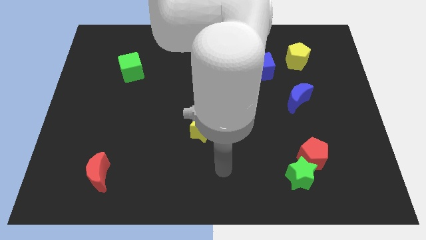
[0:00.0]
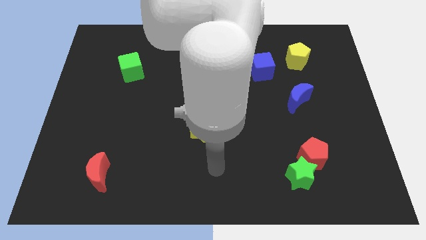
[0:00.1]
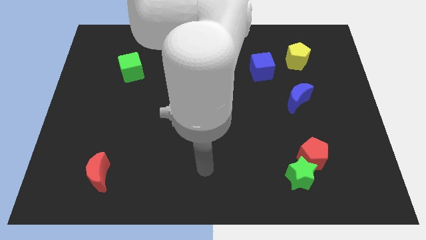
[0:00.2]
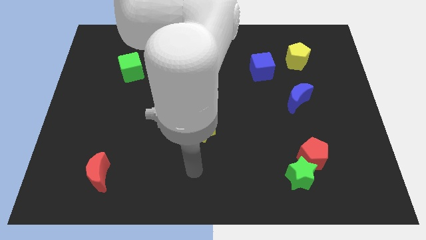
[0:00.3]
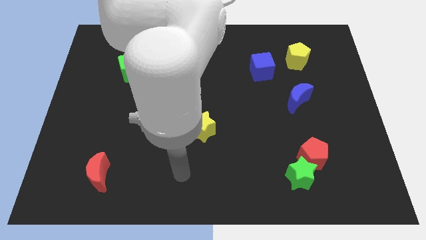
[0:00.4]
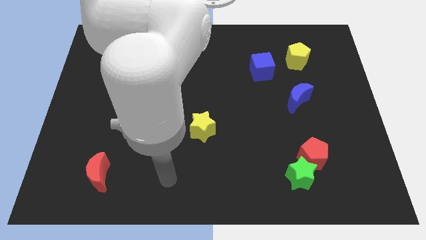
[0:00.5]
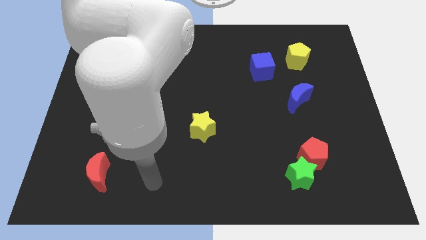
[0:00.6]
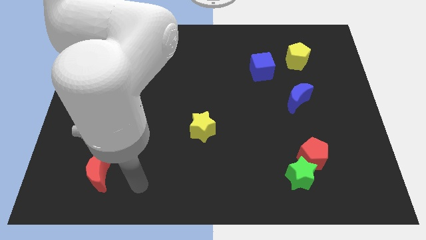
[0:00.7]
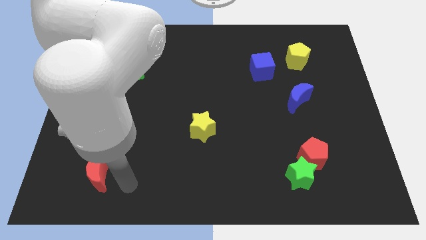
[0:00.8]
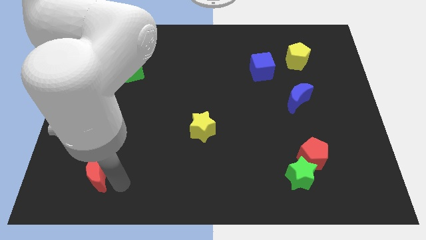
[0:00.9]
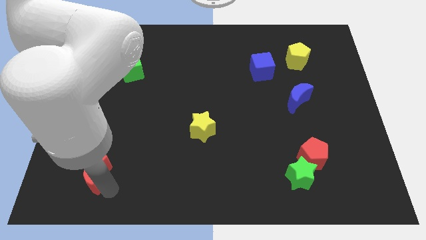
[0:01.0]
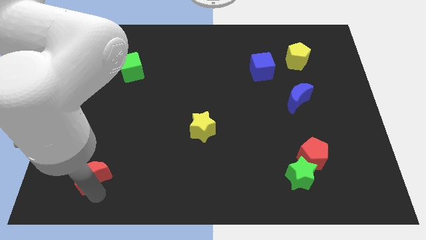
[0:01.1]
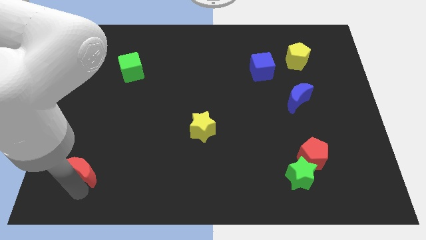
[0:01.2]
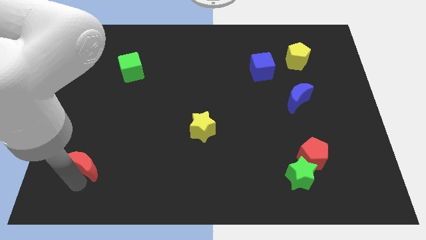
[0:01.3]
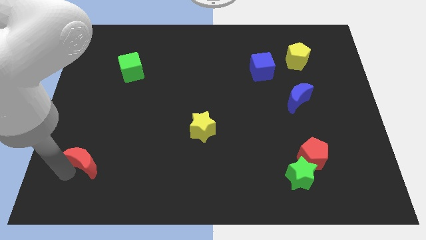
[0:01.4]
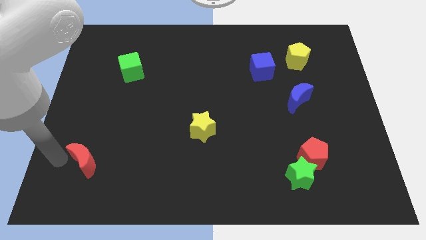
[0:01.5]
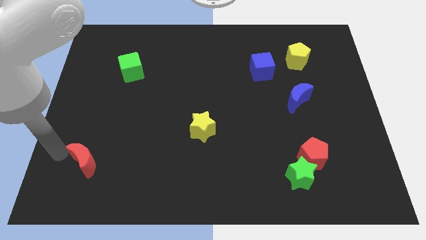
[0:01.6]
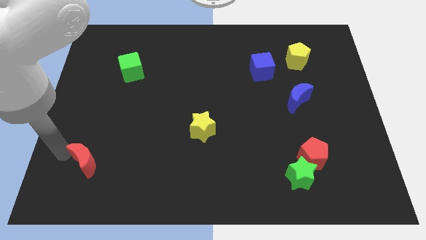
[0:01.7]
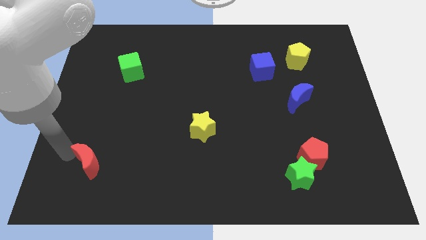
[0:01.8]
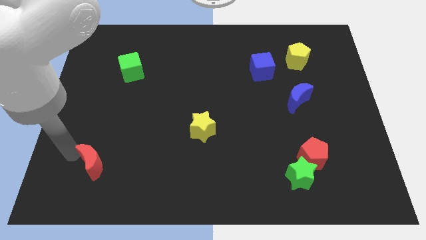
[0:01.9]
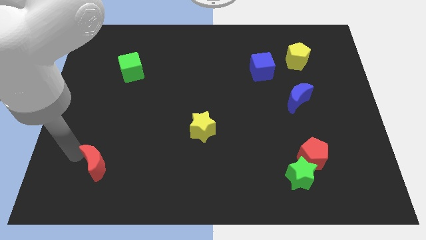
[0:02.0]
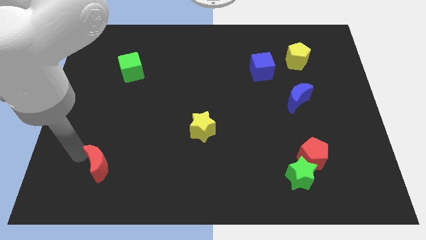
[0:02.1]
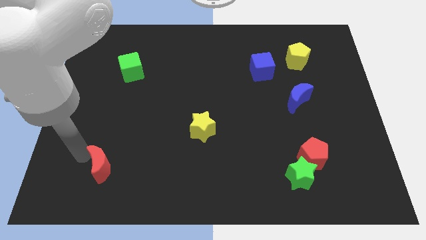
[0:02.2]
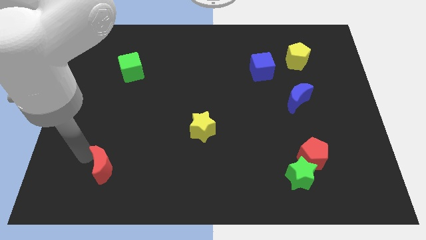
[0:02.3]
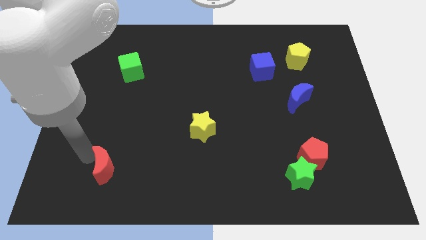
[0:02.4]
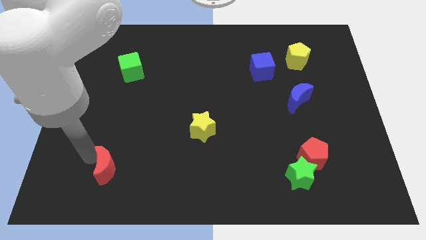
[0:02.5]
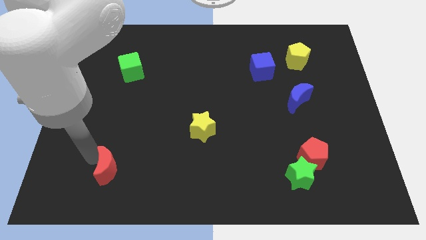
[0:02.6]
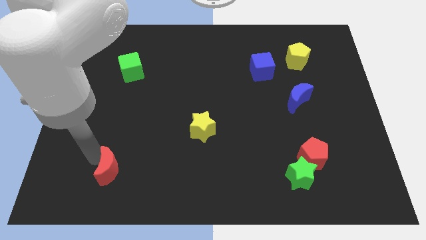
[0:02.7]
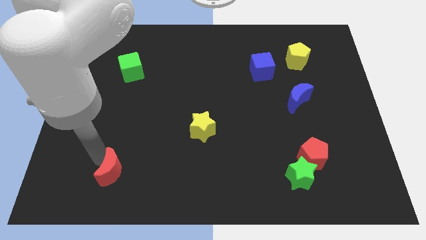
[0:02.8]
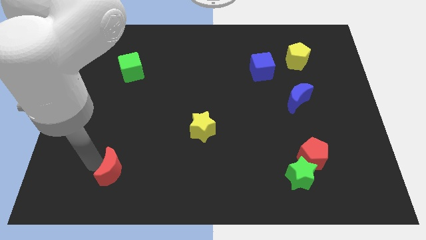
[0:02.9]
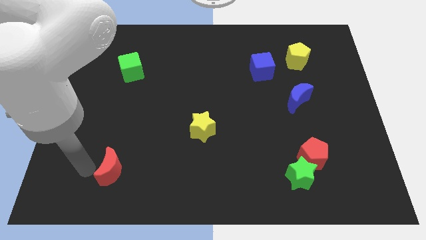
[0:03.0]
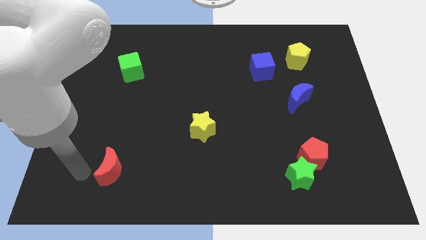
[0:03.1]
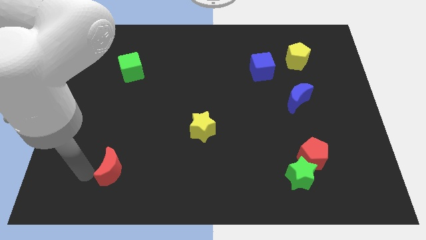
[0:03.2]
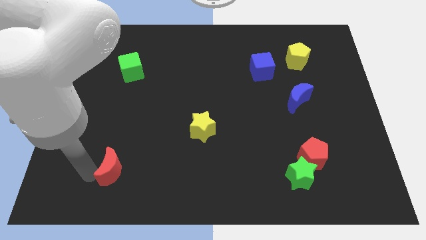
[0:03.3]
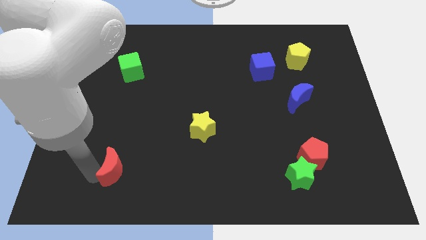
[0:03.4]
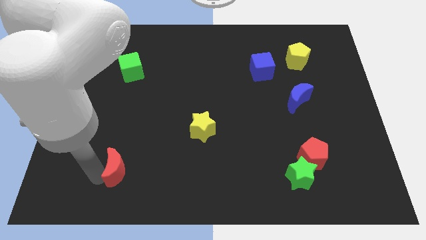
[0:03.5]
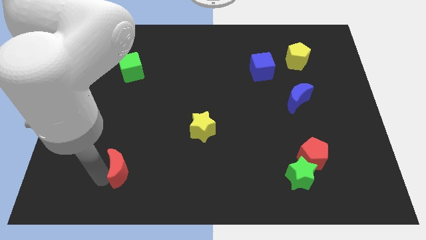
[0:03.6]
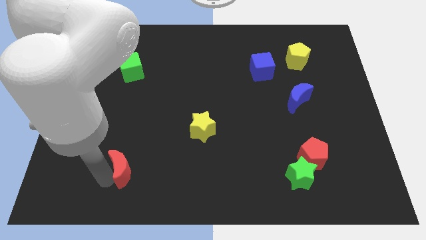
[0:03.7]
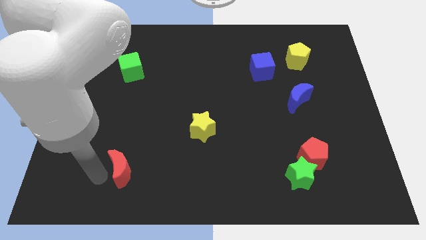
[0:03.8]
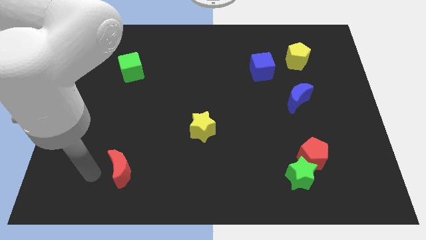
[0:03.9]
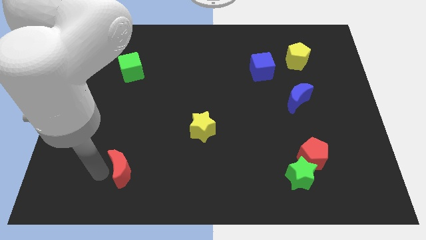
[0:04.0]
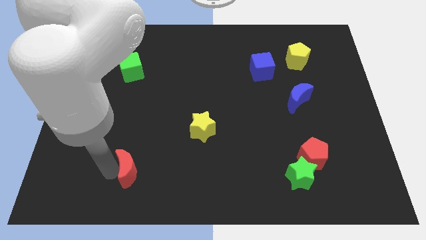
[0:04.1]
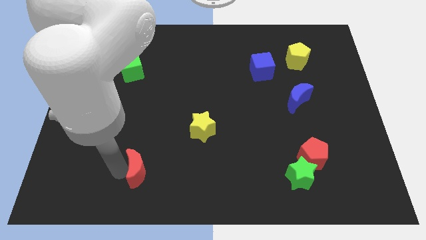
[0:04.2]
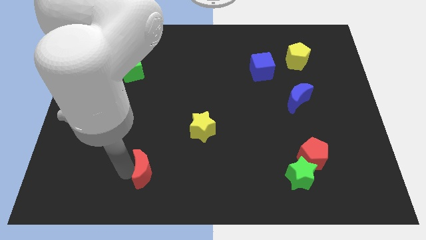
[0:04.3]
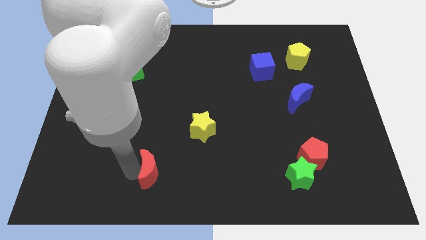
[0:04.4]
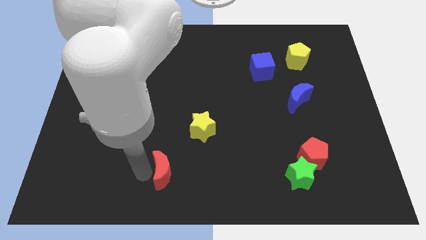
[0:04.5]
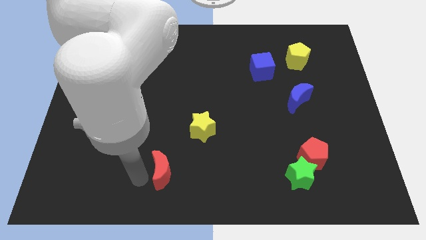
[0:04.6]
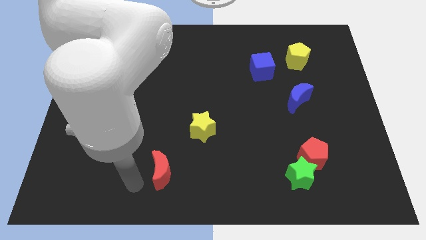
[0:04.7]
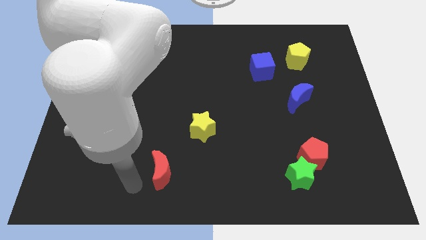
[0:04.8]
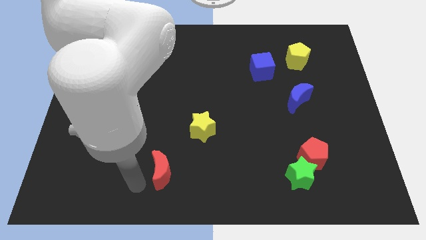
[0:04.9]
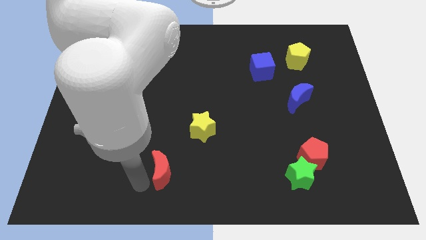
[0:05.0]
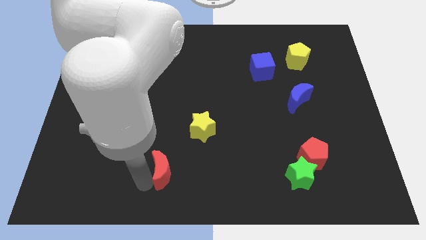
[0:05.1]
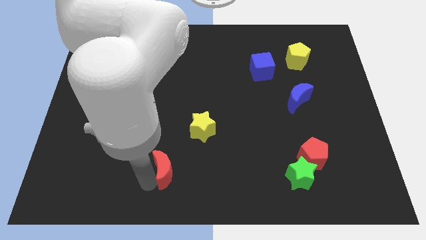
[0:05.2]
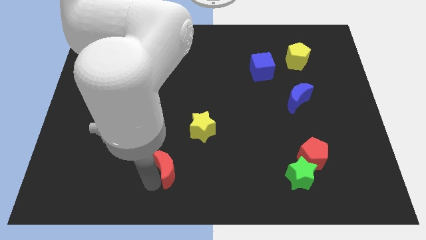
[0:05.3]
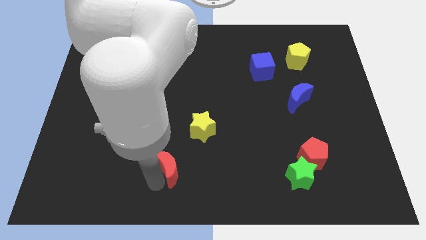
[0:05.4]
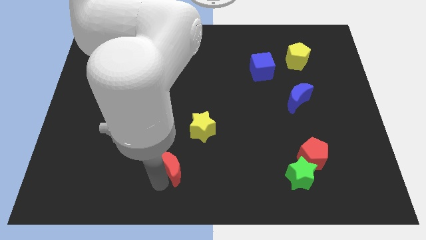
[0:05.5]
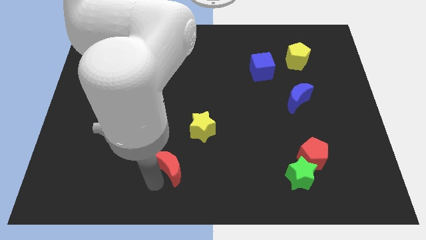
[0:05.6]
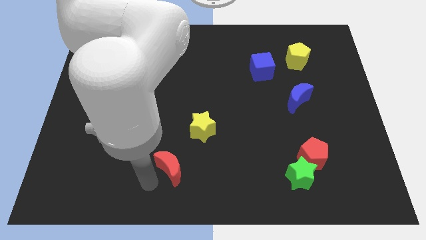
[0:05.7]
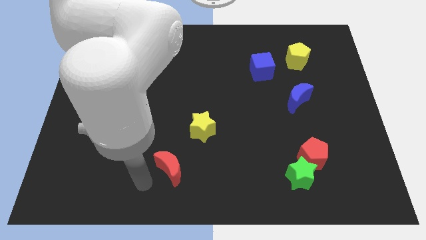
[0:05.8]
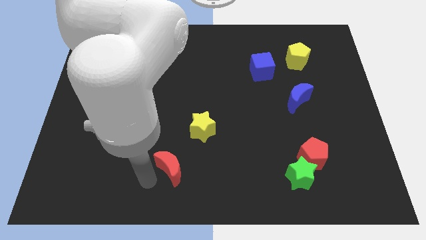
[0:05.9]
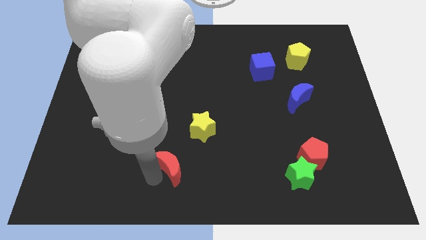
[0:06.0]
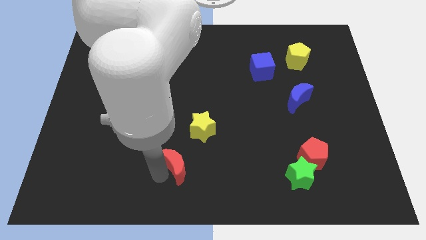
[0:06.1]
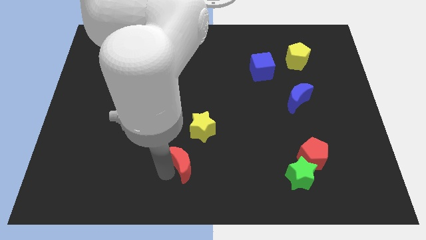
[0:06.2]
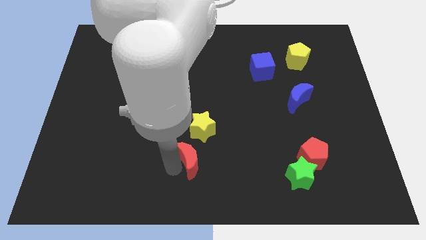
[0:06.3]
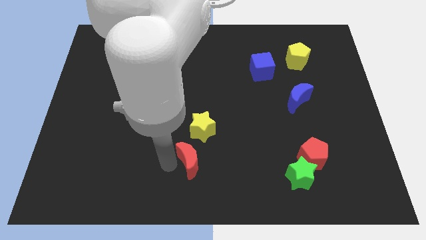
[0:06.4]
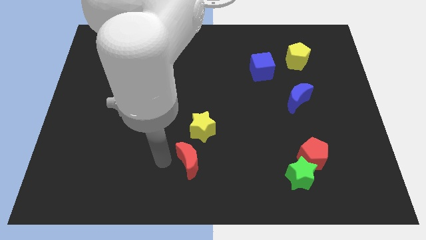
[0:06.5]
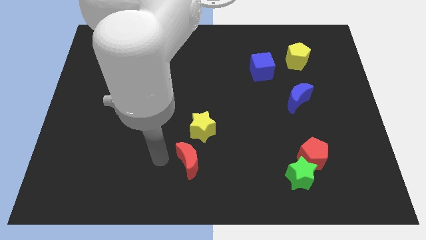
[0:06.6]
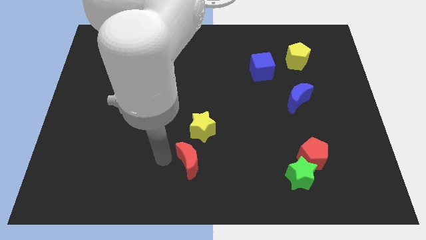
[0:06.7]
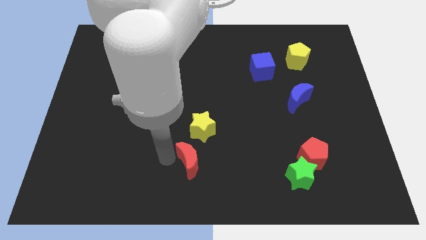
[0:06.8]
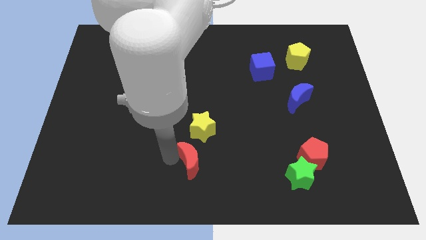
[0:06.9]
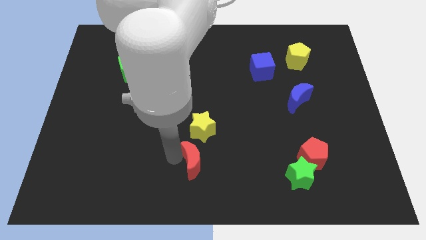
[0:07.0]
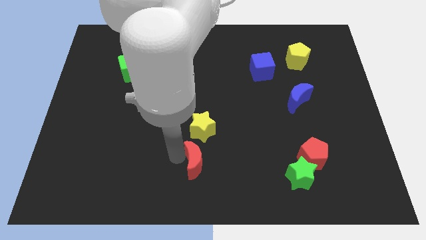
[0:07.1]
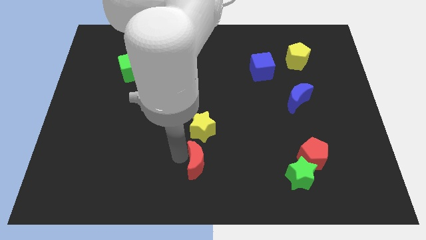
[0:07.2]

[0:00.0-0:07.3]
push the red moon to the right

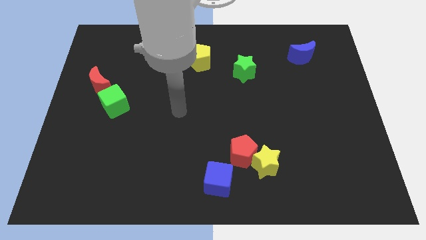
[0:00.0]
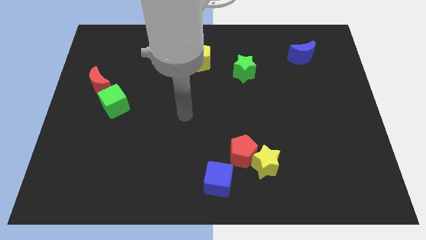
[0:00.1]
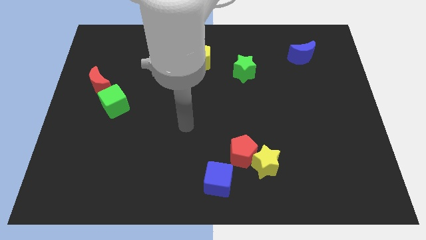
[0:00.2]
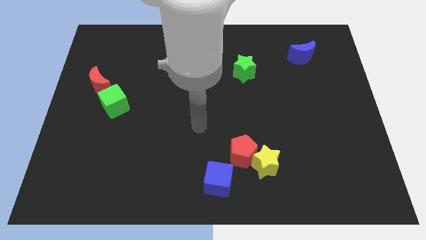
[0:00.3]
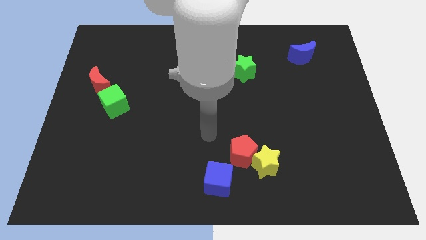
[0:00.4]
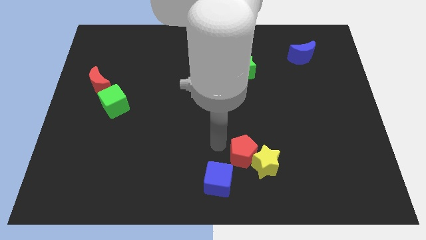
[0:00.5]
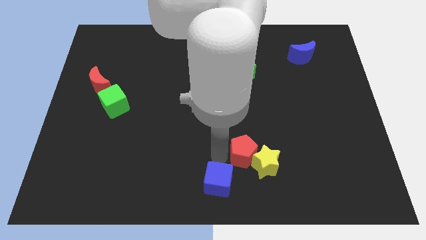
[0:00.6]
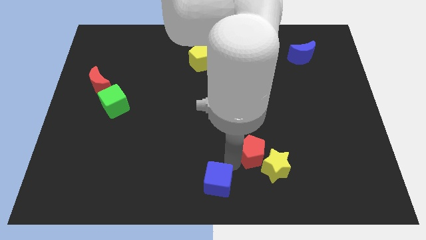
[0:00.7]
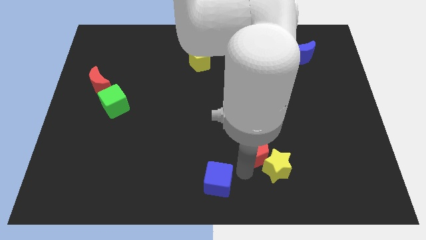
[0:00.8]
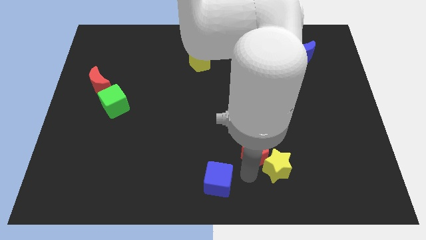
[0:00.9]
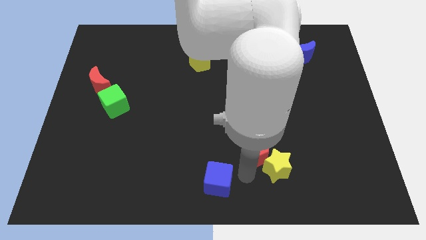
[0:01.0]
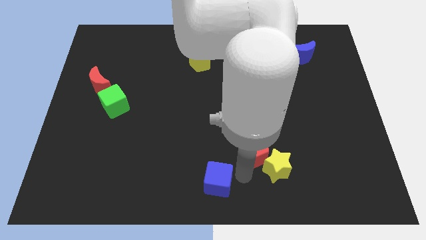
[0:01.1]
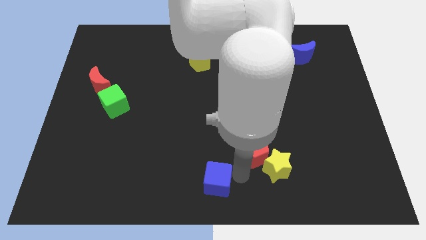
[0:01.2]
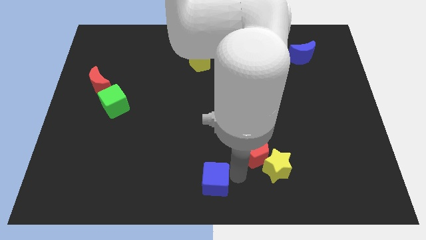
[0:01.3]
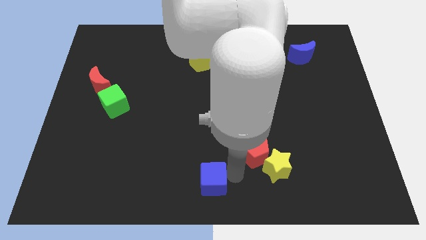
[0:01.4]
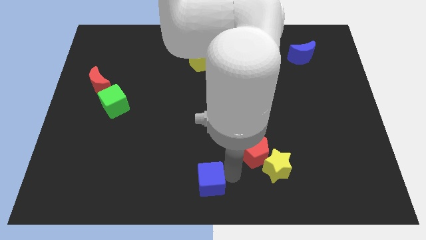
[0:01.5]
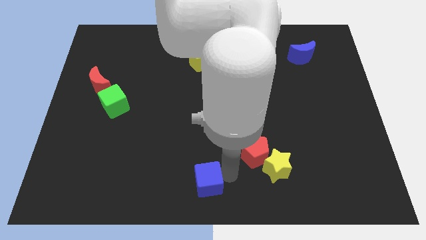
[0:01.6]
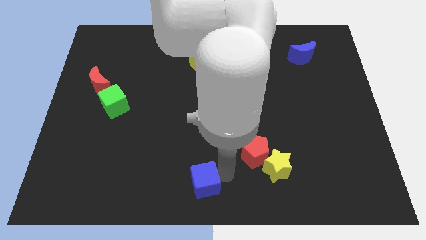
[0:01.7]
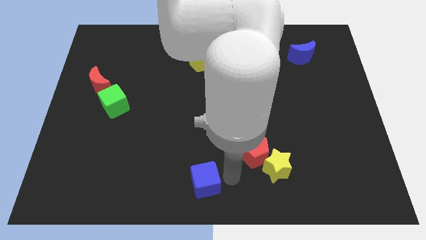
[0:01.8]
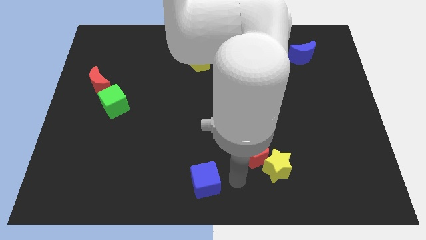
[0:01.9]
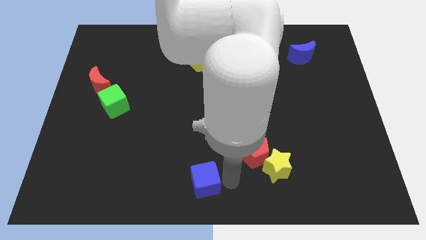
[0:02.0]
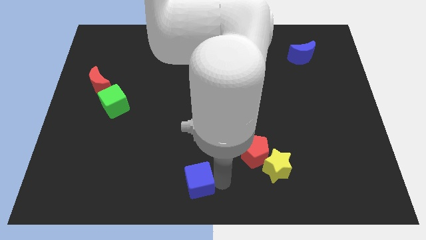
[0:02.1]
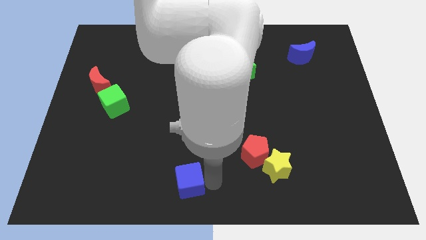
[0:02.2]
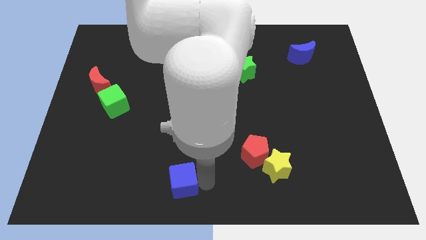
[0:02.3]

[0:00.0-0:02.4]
move the blue cube a little to the left
